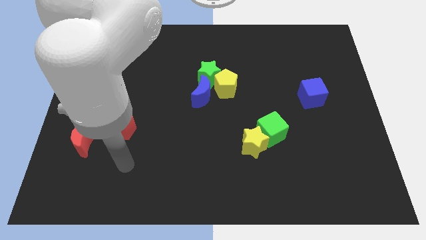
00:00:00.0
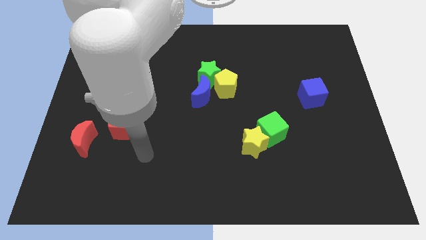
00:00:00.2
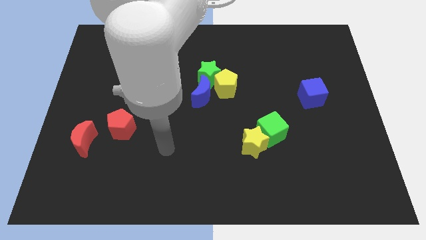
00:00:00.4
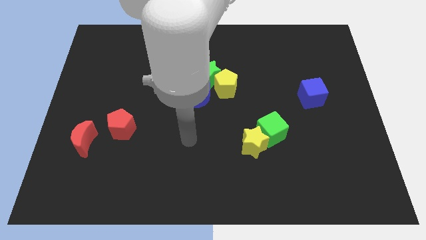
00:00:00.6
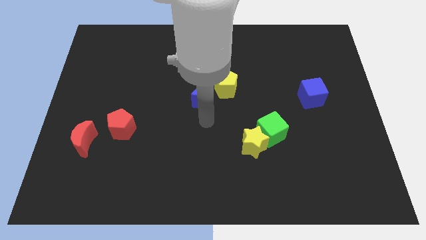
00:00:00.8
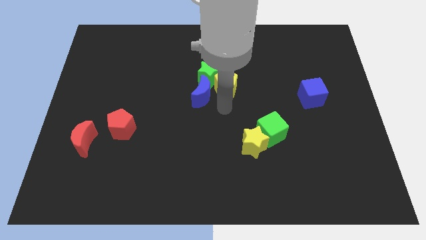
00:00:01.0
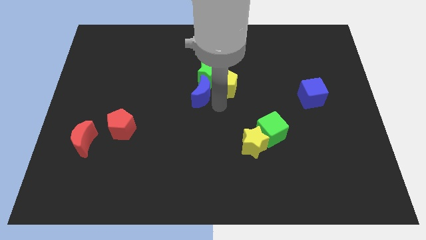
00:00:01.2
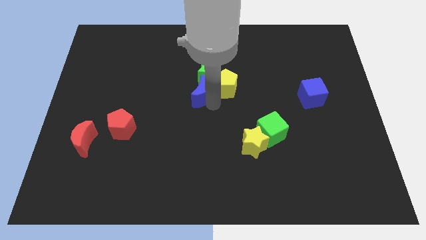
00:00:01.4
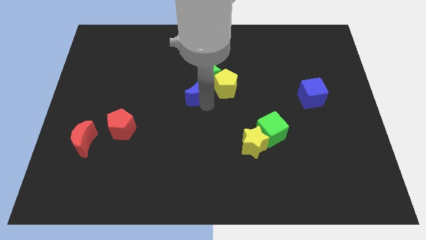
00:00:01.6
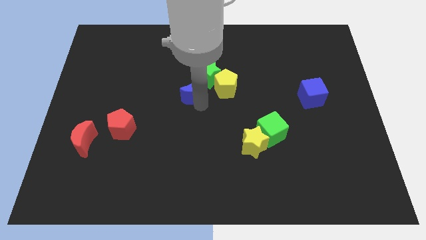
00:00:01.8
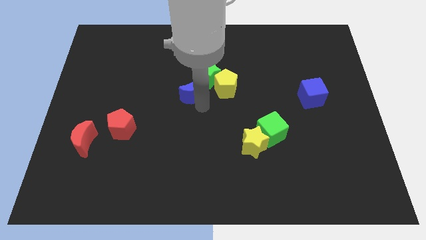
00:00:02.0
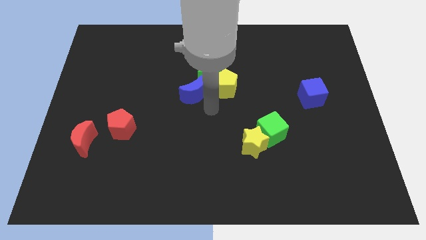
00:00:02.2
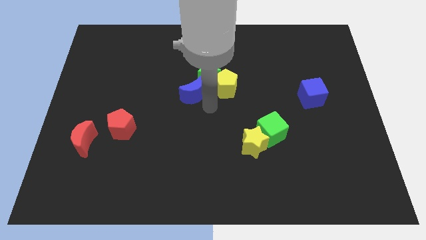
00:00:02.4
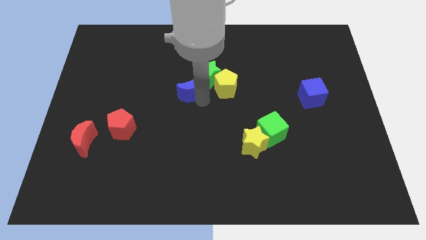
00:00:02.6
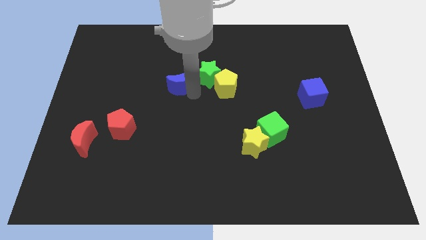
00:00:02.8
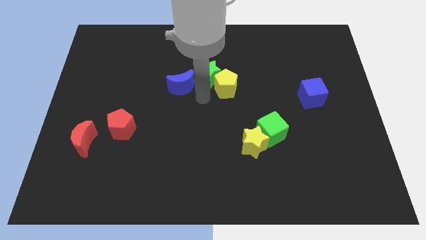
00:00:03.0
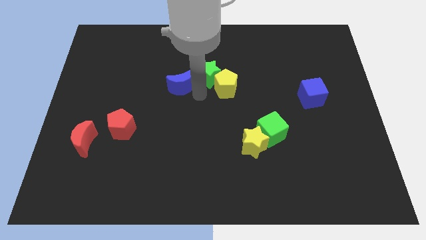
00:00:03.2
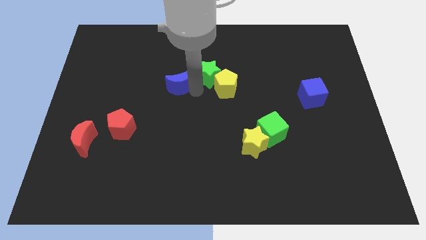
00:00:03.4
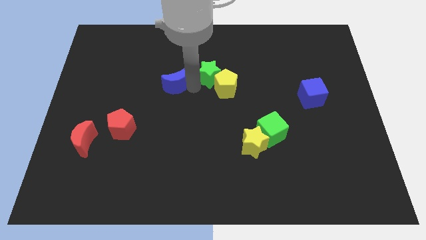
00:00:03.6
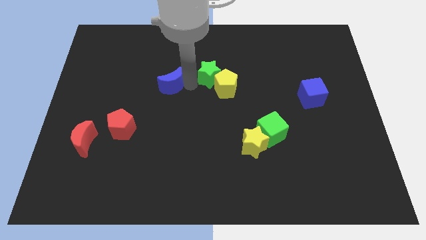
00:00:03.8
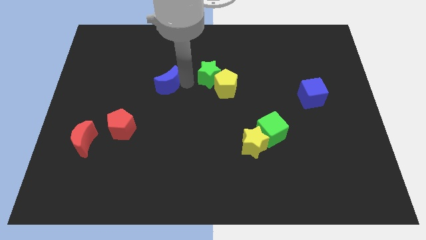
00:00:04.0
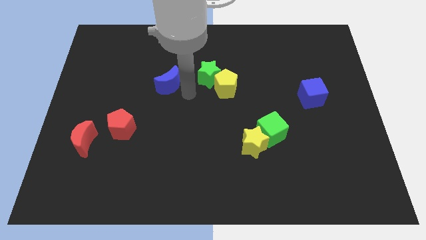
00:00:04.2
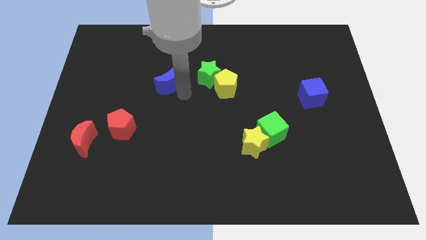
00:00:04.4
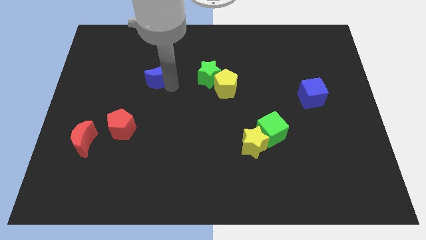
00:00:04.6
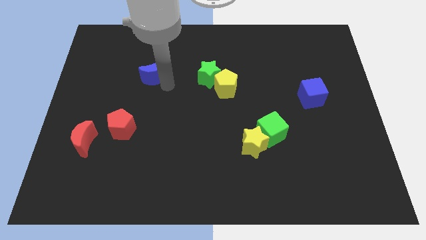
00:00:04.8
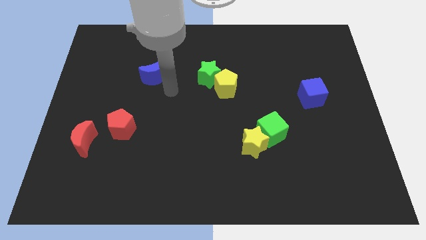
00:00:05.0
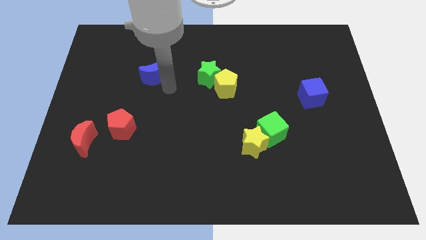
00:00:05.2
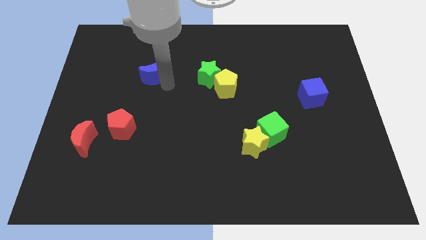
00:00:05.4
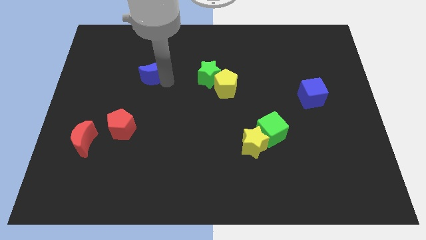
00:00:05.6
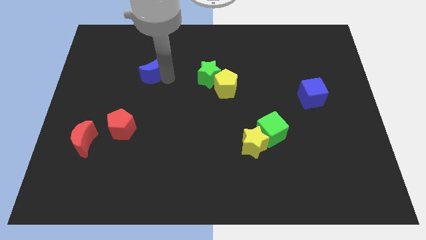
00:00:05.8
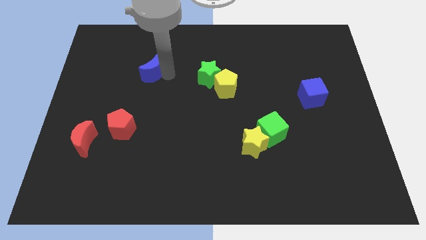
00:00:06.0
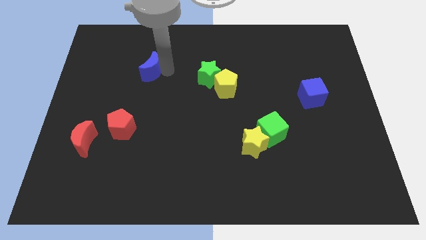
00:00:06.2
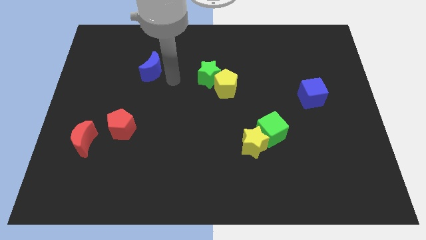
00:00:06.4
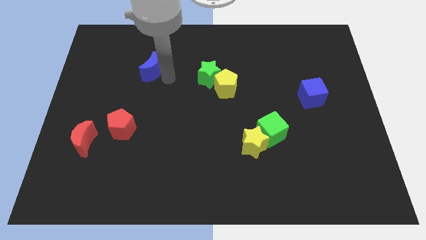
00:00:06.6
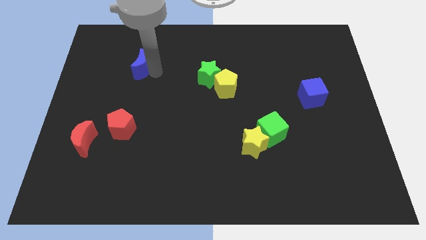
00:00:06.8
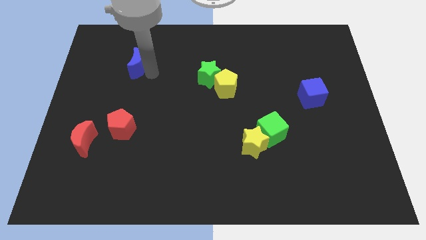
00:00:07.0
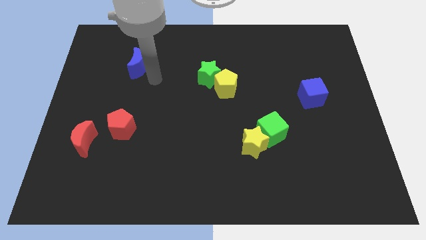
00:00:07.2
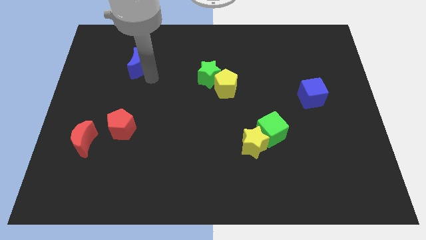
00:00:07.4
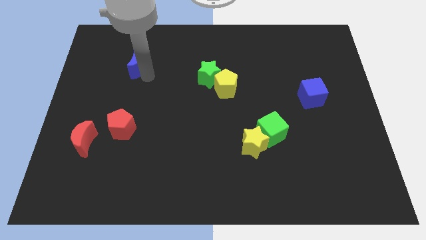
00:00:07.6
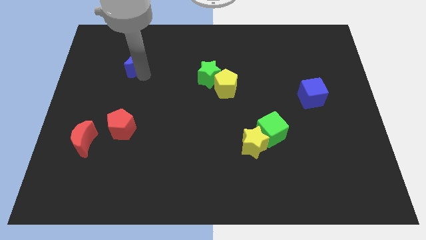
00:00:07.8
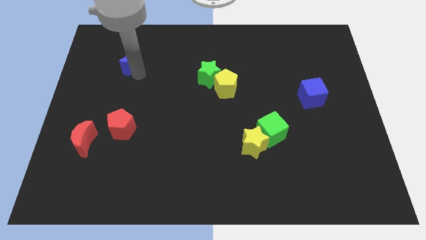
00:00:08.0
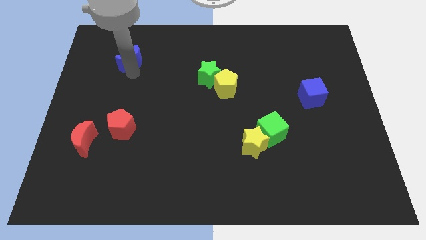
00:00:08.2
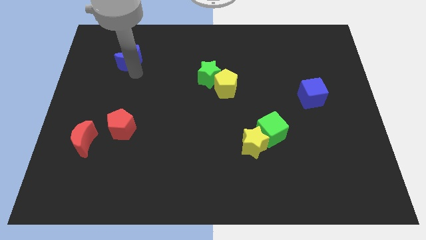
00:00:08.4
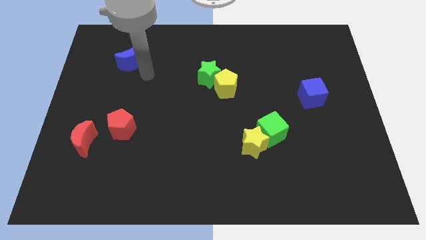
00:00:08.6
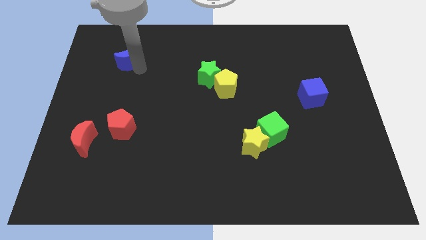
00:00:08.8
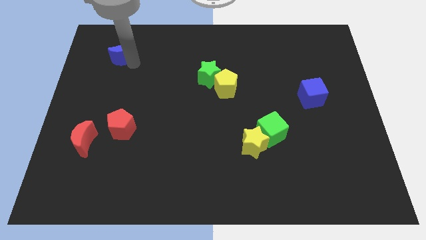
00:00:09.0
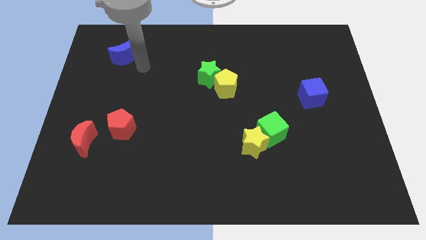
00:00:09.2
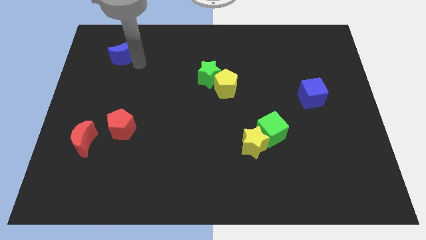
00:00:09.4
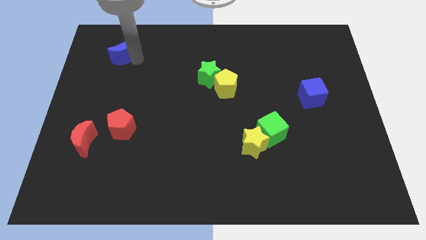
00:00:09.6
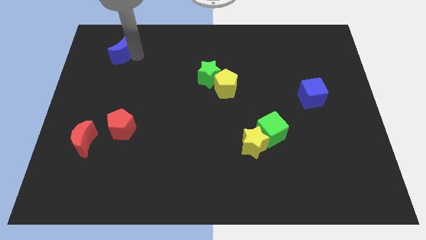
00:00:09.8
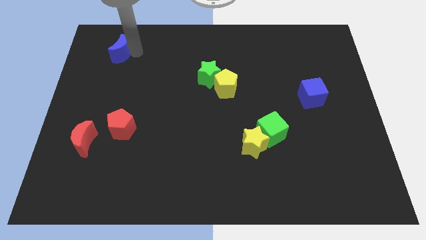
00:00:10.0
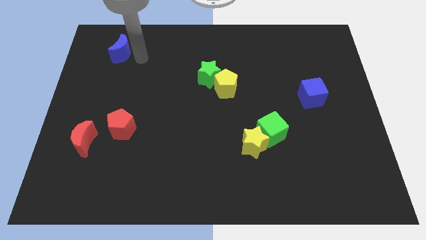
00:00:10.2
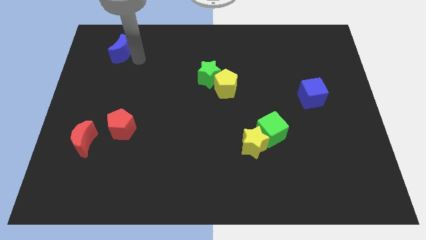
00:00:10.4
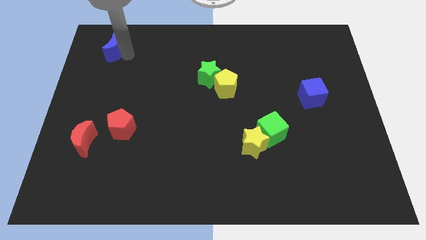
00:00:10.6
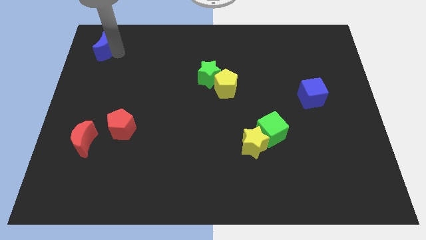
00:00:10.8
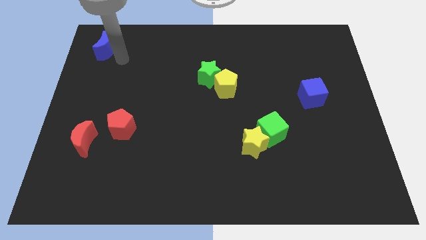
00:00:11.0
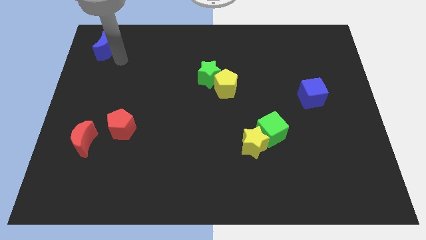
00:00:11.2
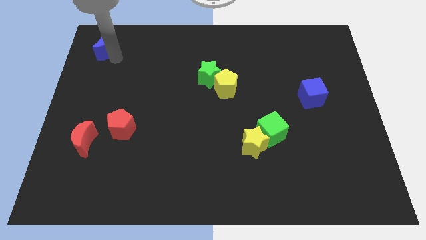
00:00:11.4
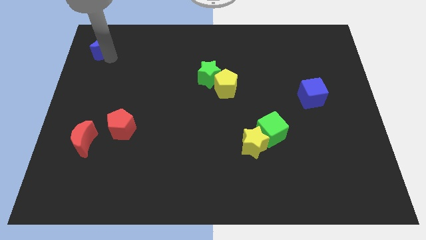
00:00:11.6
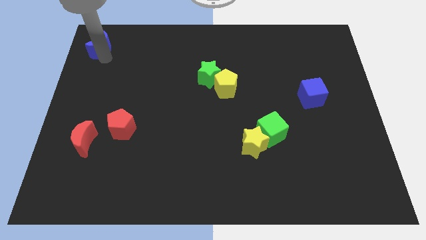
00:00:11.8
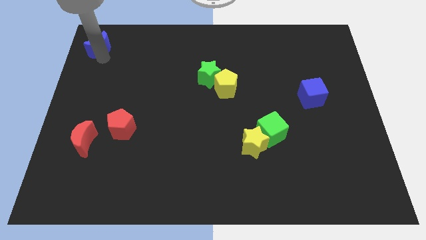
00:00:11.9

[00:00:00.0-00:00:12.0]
put the blue moon to the top left of the board

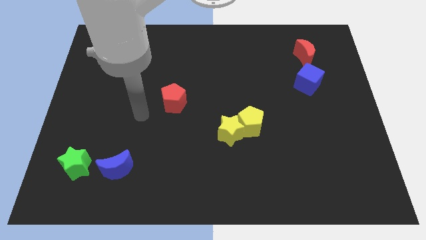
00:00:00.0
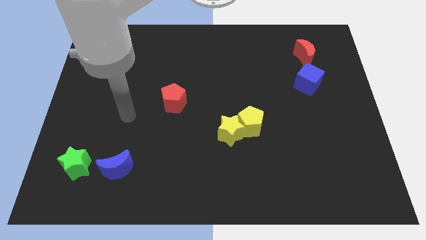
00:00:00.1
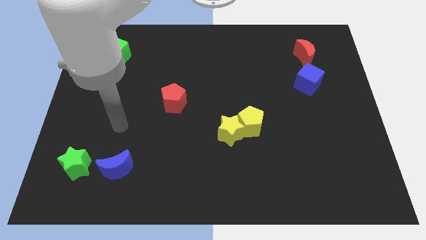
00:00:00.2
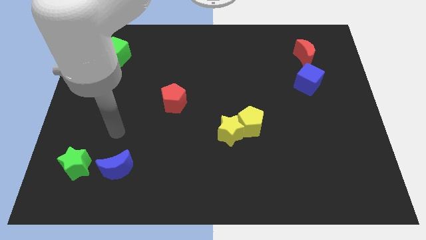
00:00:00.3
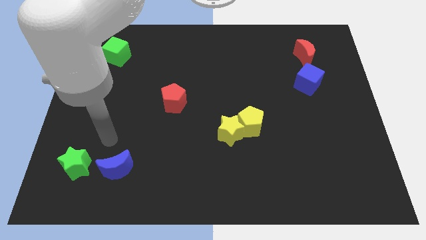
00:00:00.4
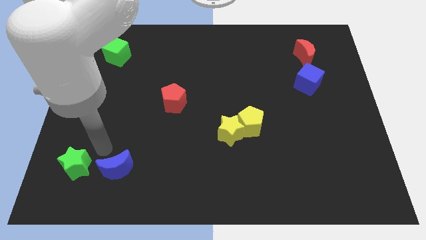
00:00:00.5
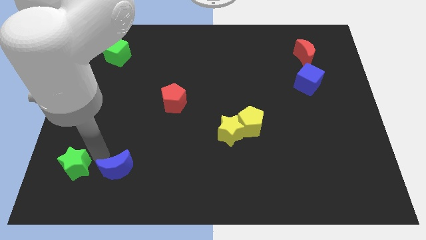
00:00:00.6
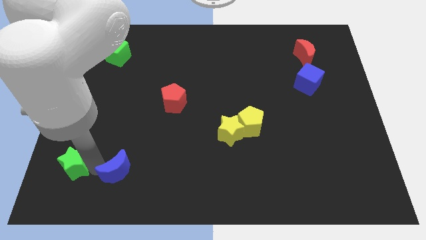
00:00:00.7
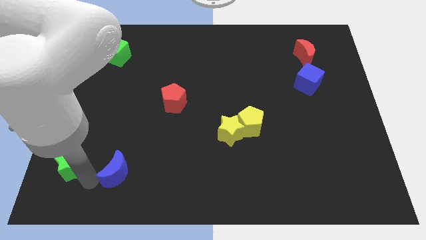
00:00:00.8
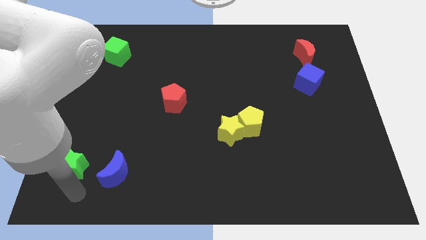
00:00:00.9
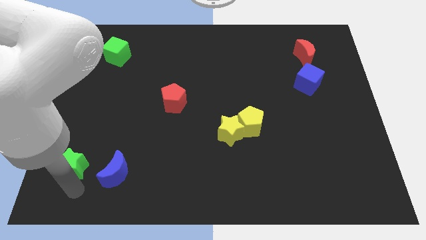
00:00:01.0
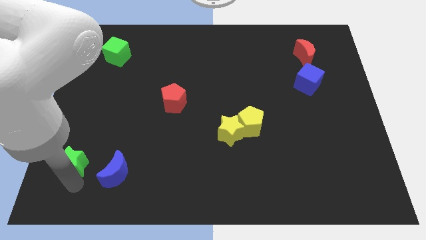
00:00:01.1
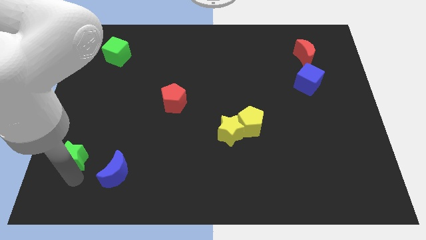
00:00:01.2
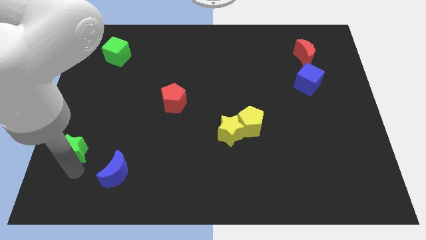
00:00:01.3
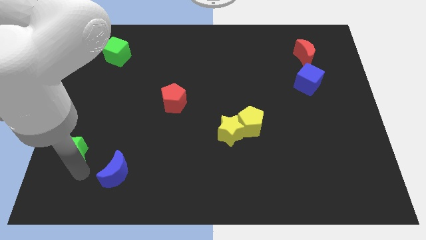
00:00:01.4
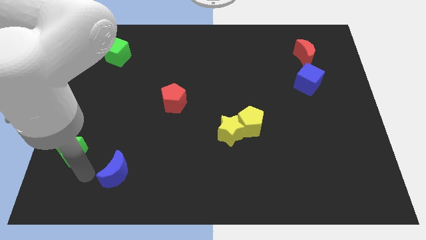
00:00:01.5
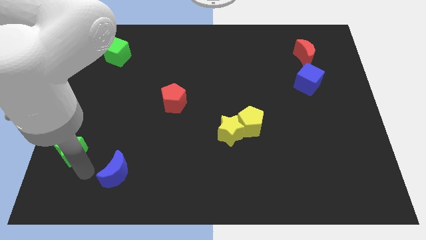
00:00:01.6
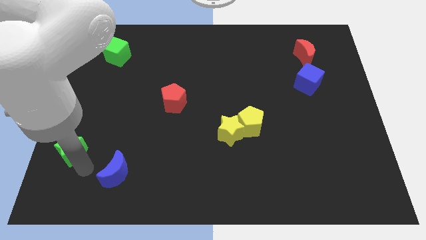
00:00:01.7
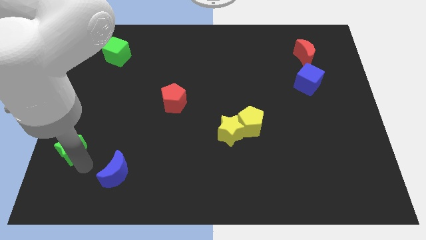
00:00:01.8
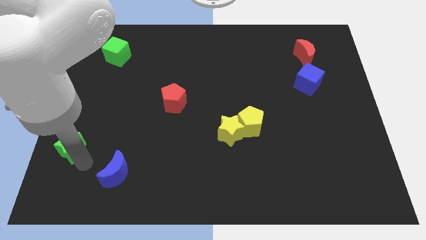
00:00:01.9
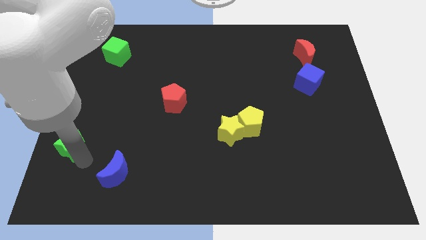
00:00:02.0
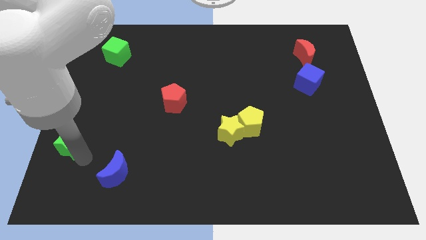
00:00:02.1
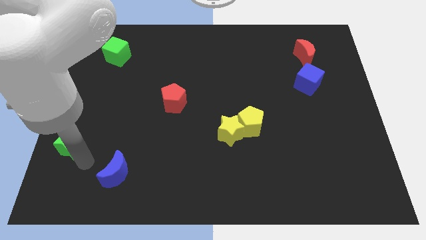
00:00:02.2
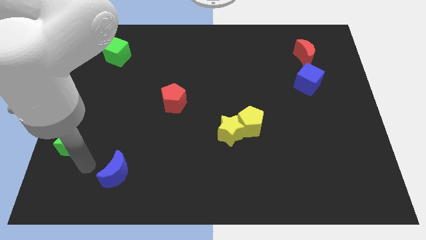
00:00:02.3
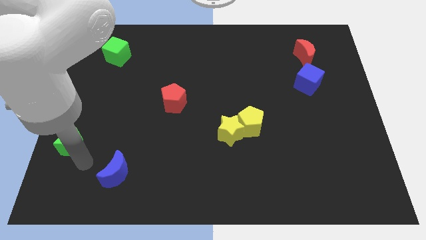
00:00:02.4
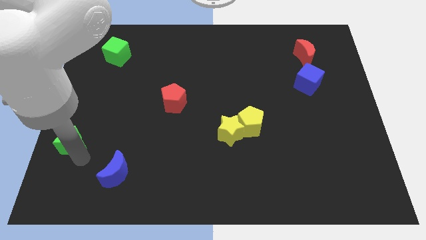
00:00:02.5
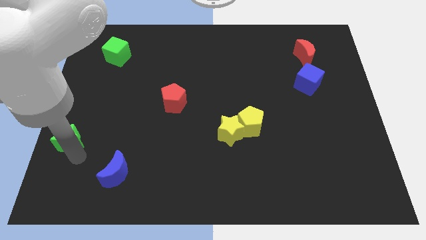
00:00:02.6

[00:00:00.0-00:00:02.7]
move the green star to the center left
